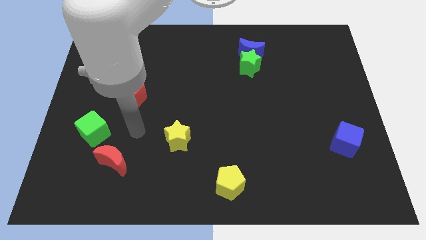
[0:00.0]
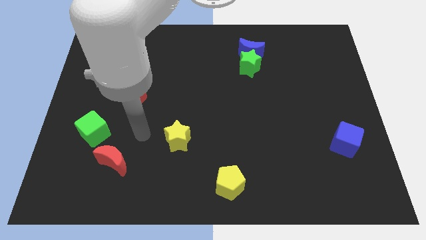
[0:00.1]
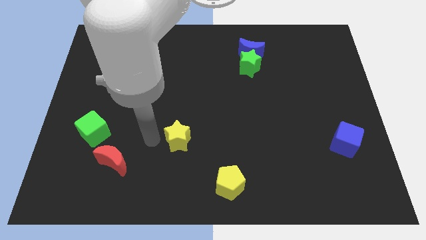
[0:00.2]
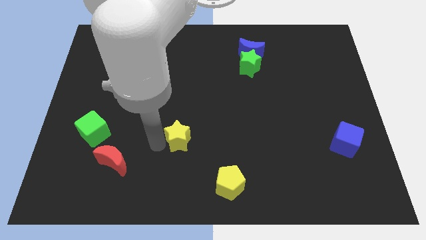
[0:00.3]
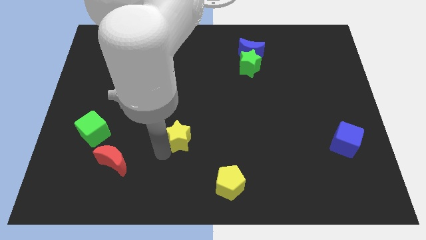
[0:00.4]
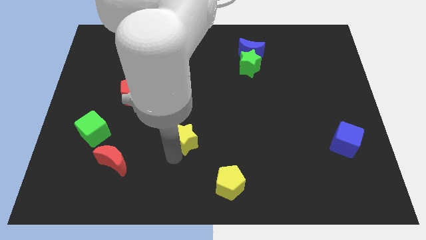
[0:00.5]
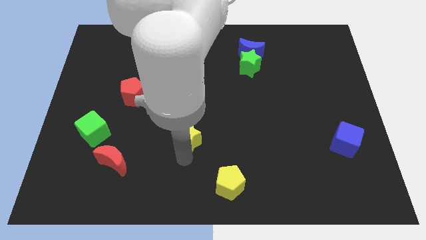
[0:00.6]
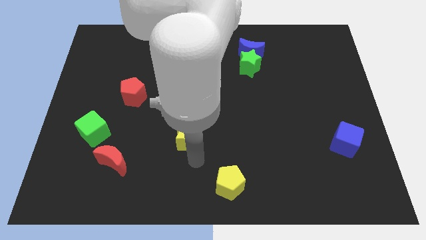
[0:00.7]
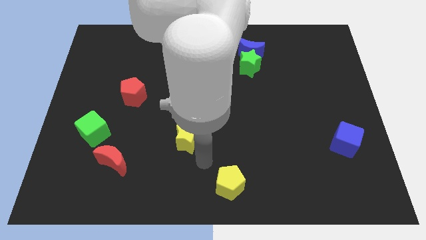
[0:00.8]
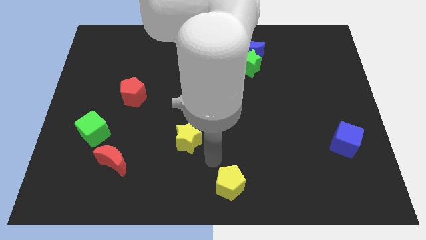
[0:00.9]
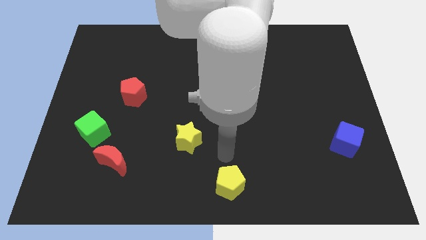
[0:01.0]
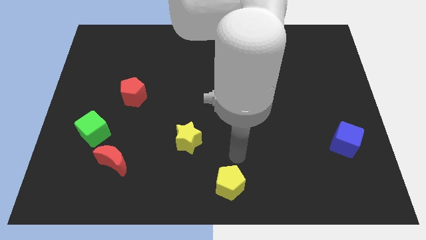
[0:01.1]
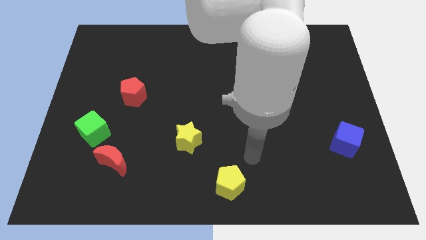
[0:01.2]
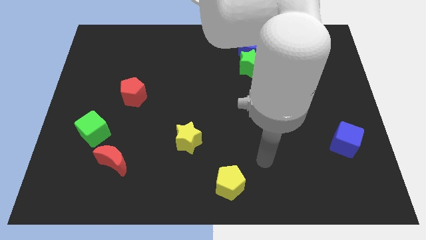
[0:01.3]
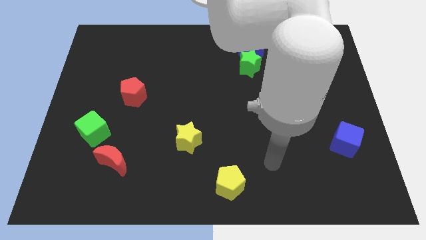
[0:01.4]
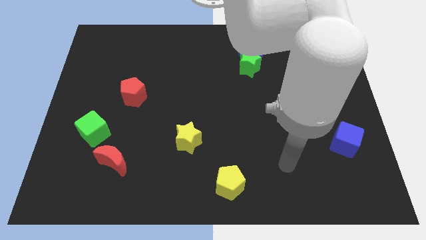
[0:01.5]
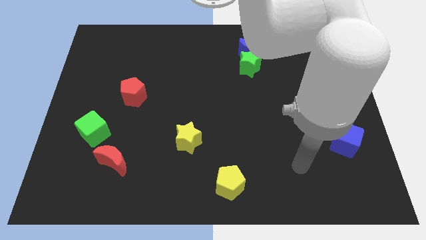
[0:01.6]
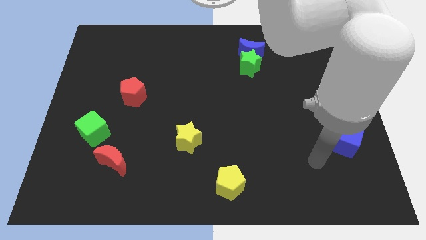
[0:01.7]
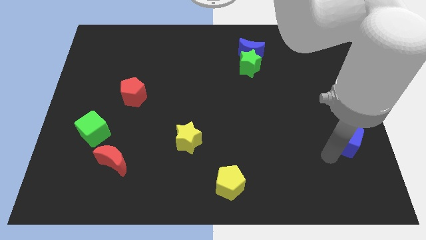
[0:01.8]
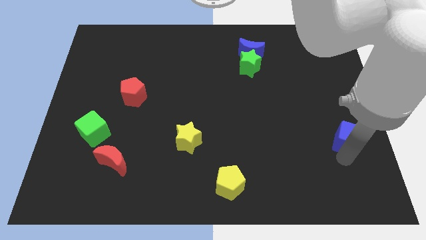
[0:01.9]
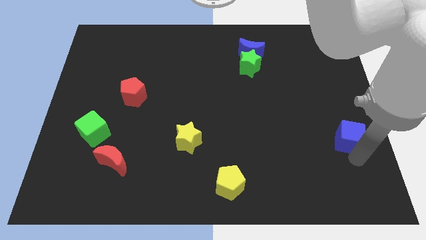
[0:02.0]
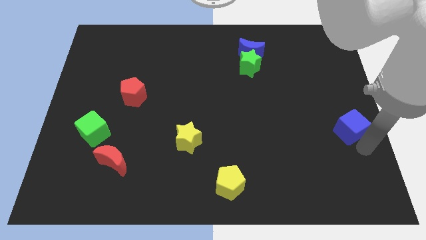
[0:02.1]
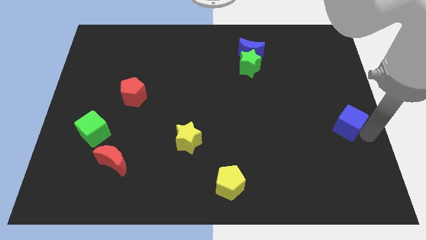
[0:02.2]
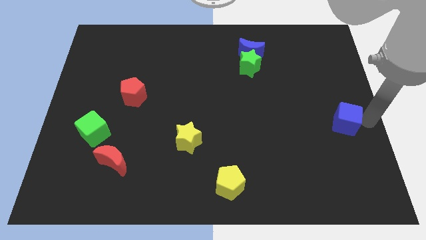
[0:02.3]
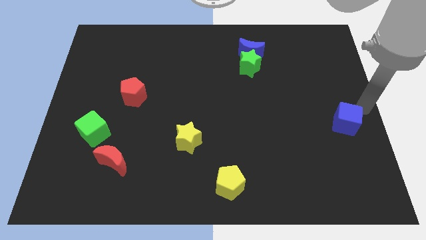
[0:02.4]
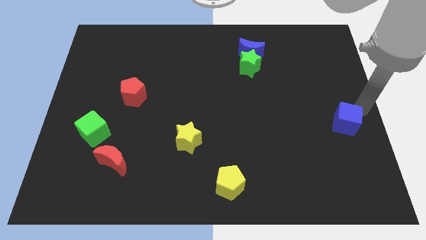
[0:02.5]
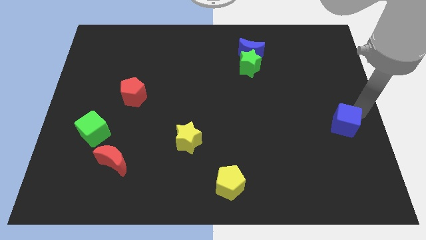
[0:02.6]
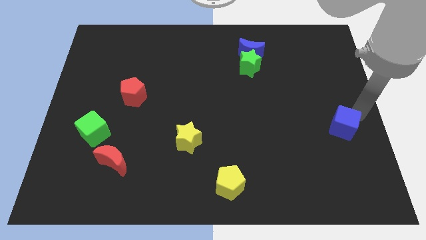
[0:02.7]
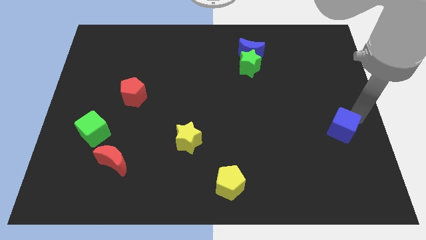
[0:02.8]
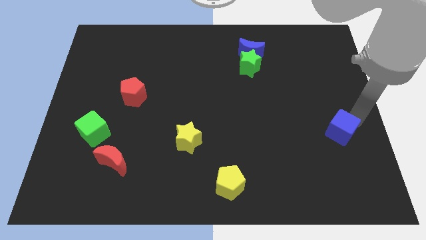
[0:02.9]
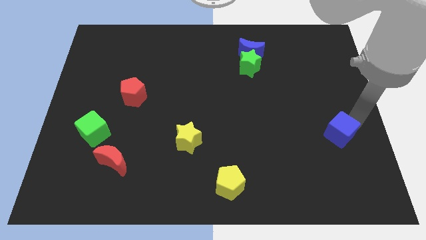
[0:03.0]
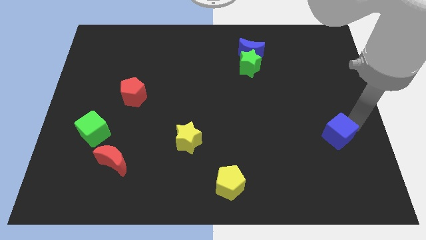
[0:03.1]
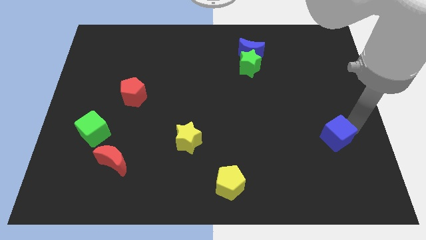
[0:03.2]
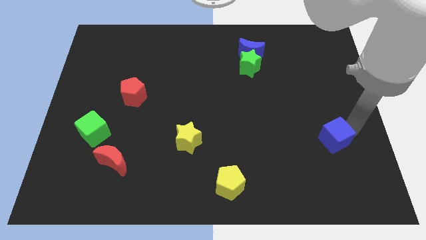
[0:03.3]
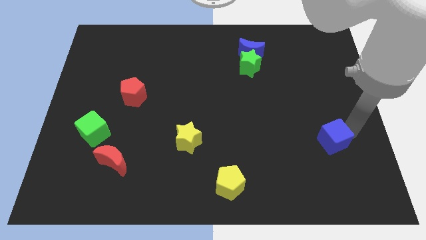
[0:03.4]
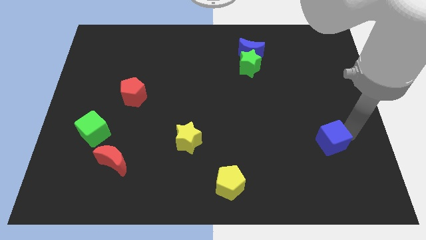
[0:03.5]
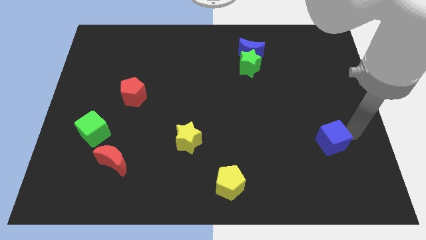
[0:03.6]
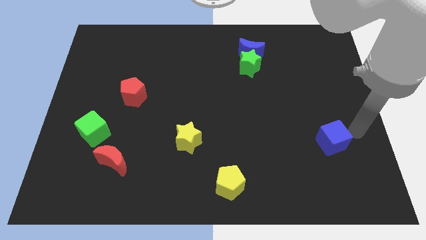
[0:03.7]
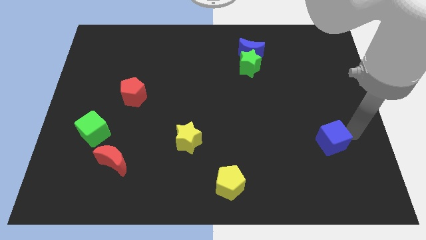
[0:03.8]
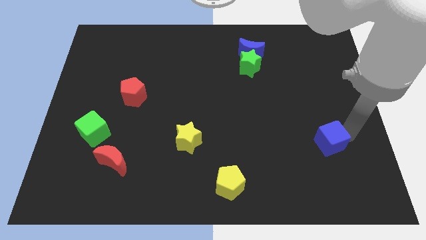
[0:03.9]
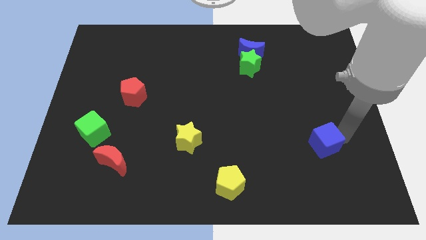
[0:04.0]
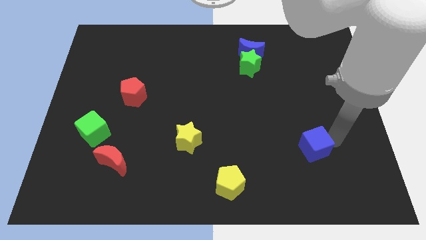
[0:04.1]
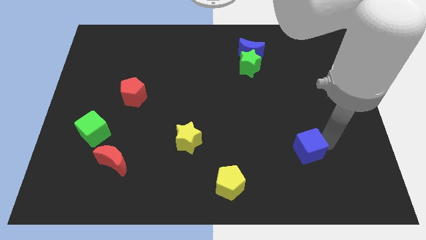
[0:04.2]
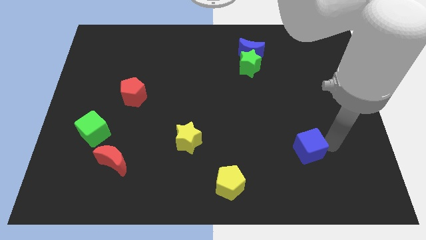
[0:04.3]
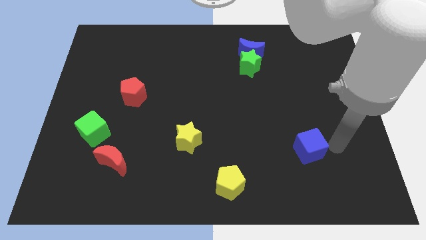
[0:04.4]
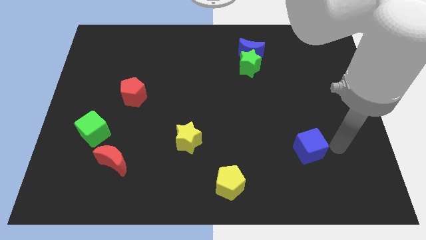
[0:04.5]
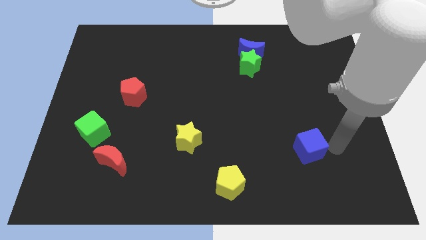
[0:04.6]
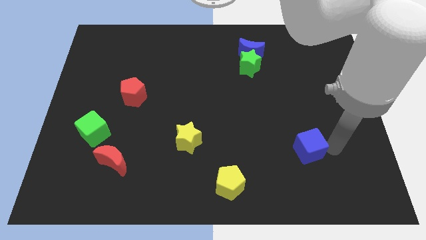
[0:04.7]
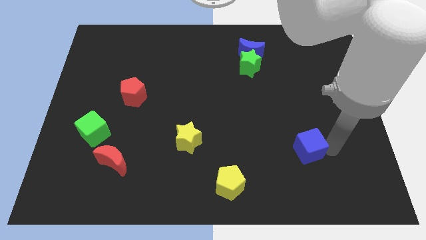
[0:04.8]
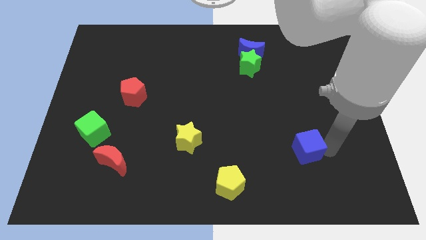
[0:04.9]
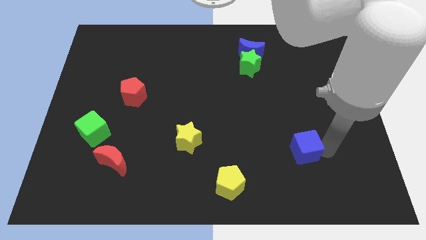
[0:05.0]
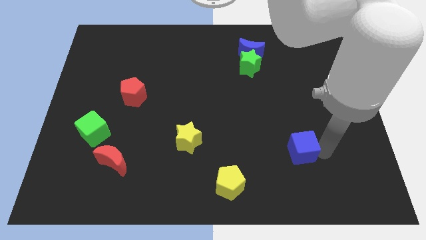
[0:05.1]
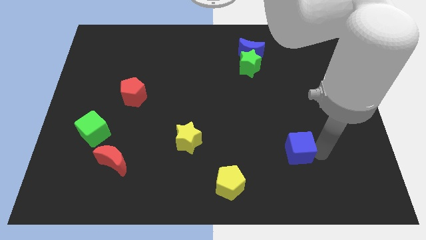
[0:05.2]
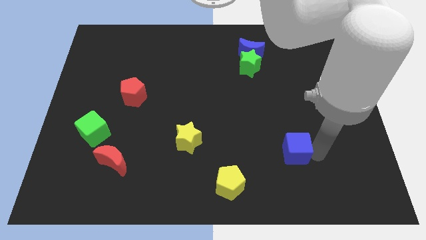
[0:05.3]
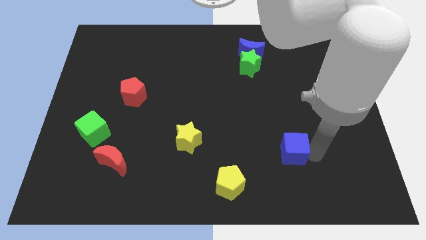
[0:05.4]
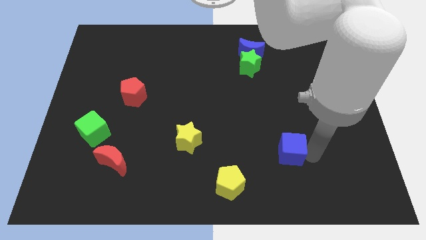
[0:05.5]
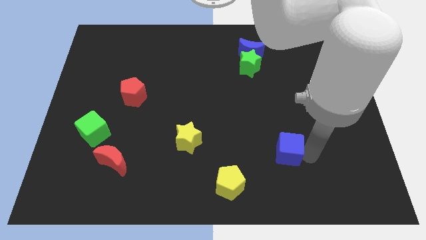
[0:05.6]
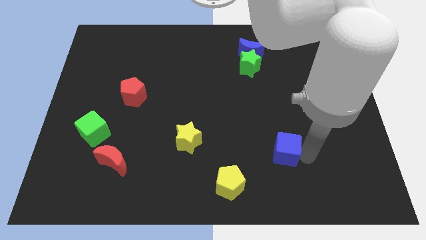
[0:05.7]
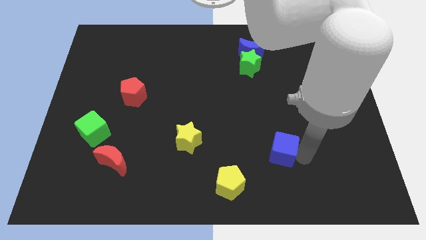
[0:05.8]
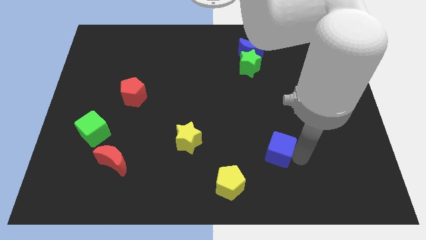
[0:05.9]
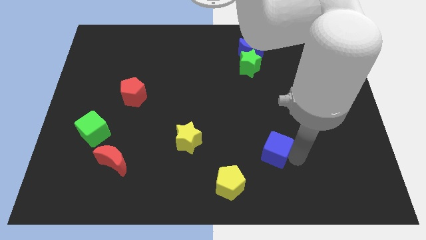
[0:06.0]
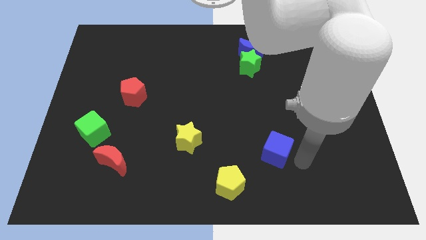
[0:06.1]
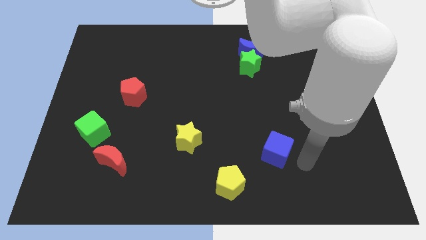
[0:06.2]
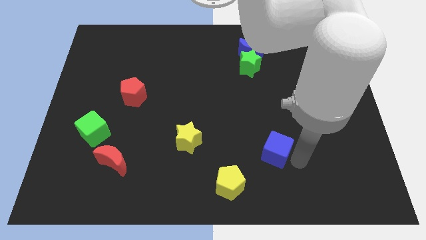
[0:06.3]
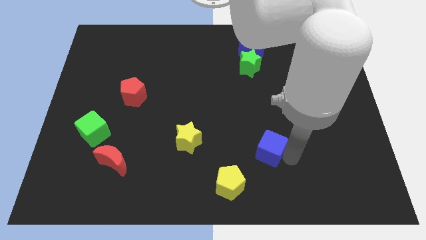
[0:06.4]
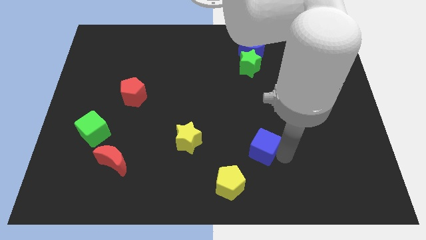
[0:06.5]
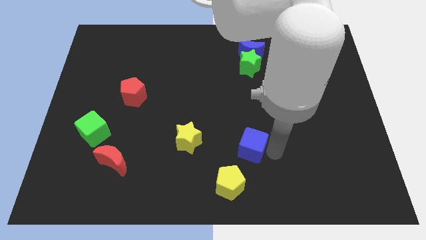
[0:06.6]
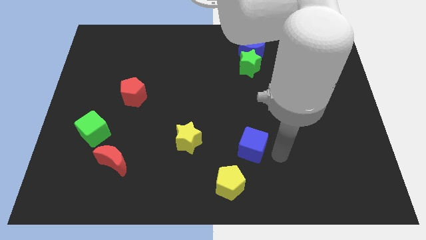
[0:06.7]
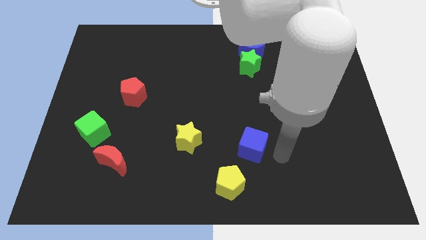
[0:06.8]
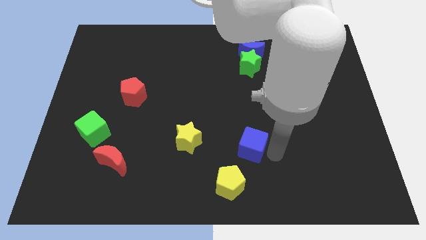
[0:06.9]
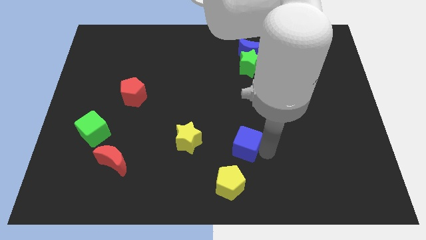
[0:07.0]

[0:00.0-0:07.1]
push the blue cube to the top of the yellow pentagon
